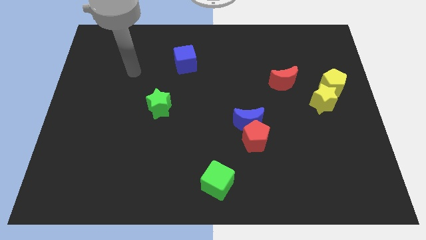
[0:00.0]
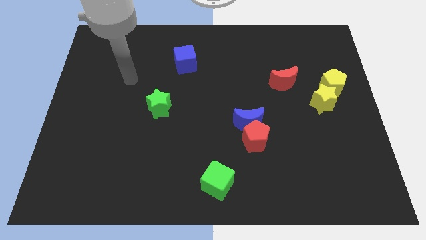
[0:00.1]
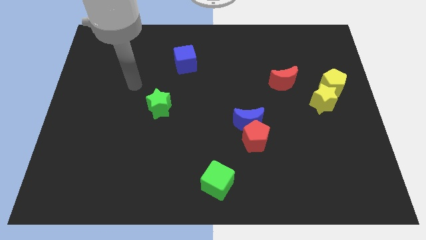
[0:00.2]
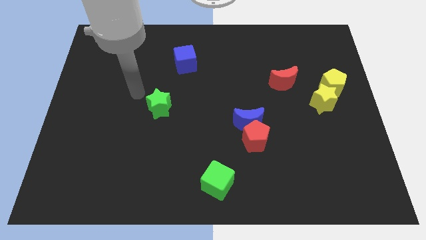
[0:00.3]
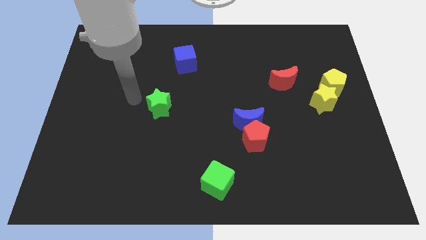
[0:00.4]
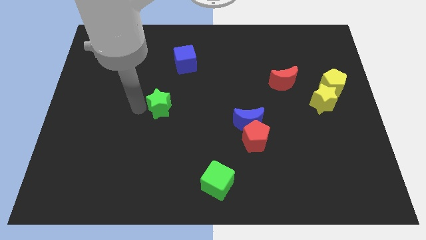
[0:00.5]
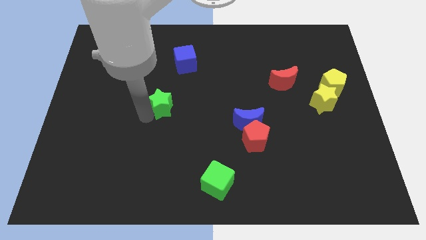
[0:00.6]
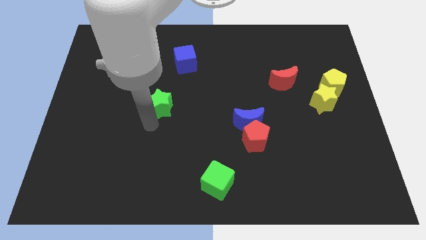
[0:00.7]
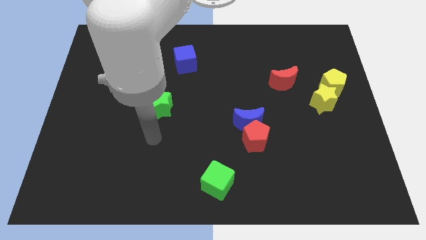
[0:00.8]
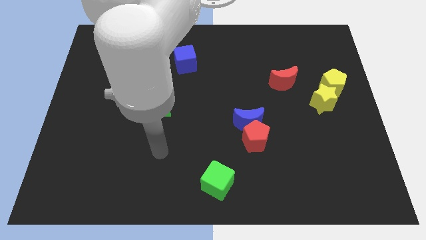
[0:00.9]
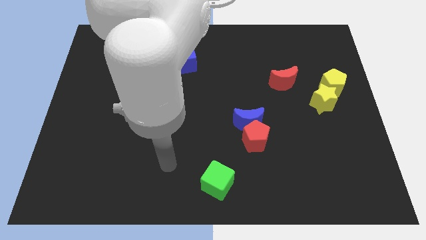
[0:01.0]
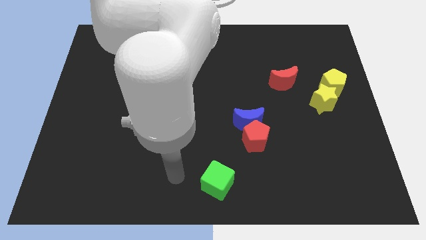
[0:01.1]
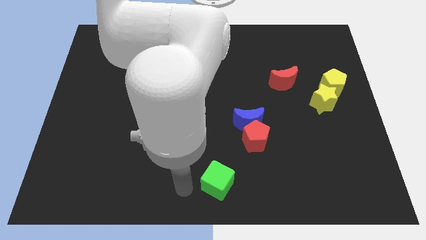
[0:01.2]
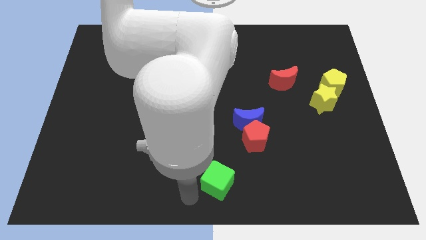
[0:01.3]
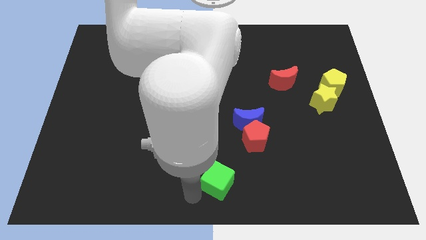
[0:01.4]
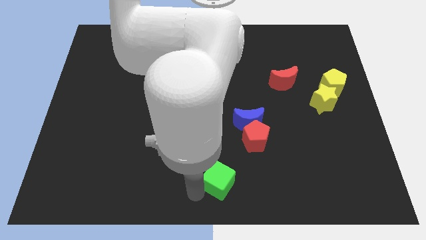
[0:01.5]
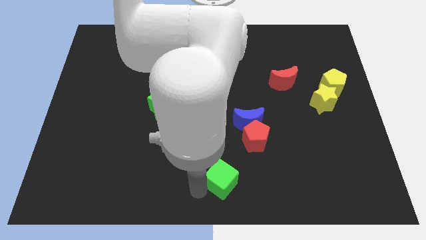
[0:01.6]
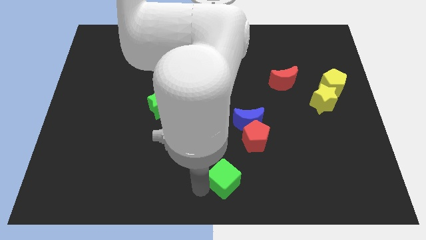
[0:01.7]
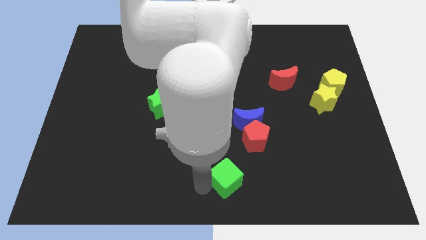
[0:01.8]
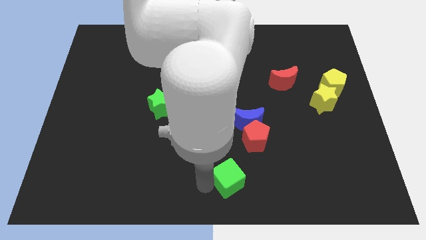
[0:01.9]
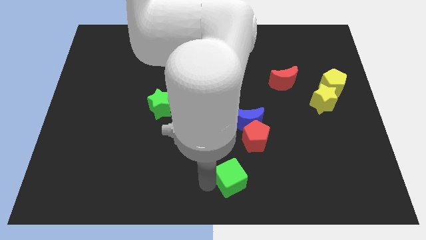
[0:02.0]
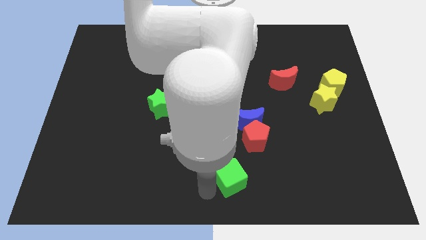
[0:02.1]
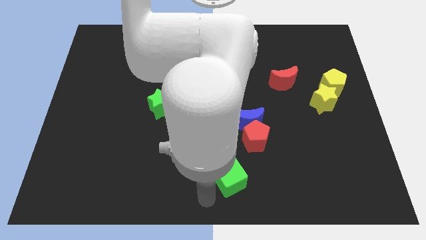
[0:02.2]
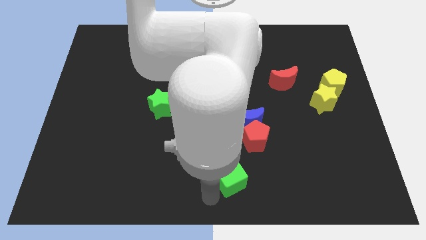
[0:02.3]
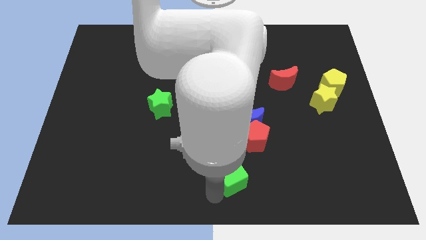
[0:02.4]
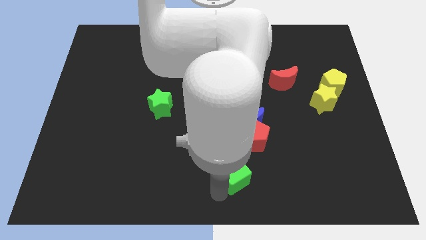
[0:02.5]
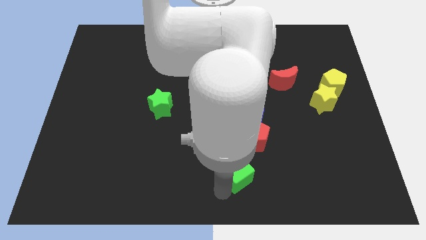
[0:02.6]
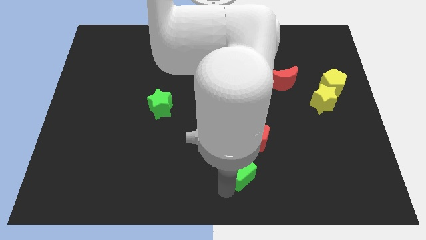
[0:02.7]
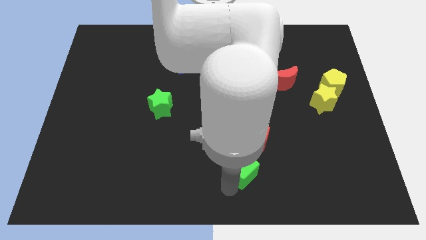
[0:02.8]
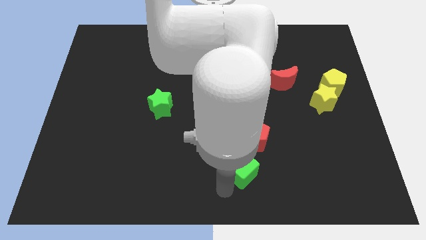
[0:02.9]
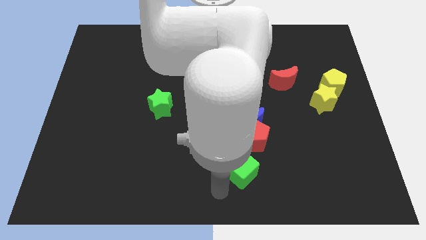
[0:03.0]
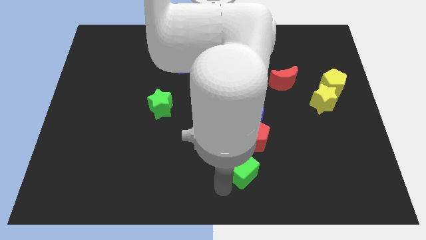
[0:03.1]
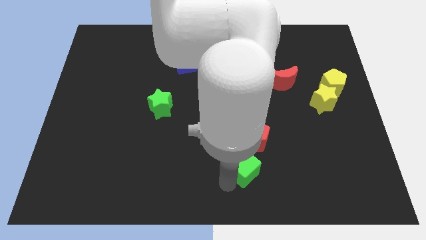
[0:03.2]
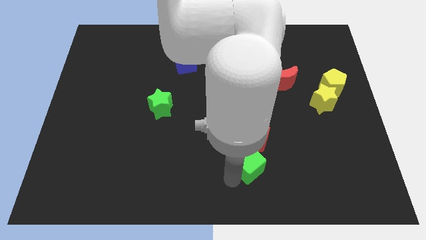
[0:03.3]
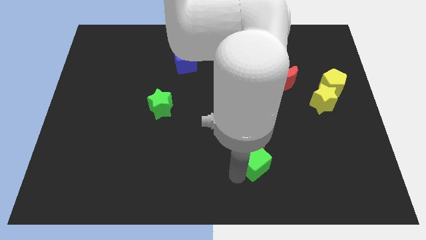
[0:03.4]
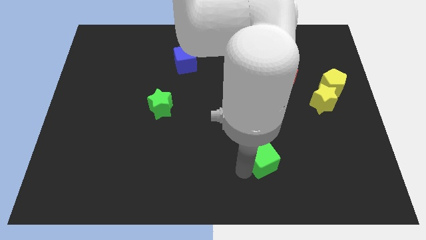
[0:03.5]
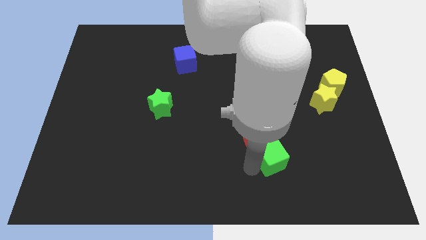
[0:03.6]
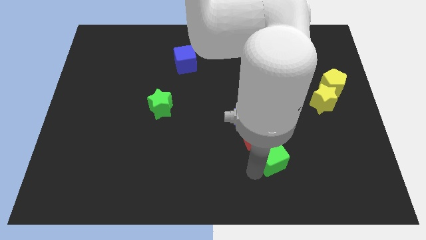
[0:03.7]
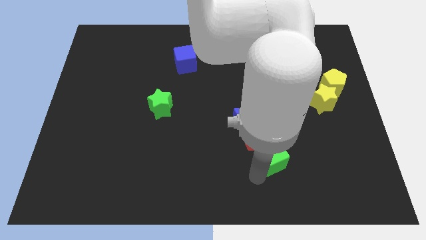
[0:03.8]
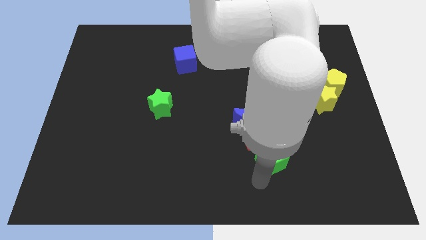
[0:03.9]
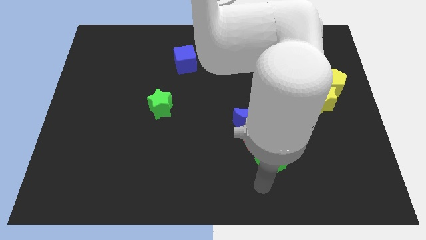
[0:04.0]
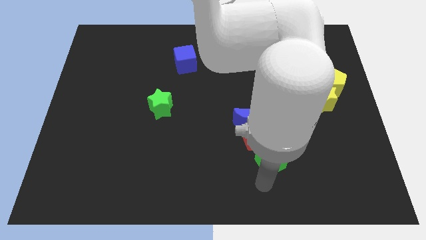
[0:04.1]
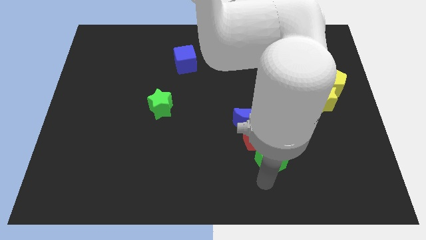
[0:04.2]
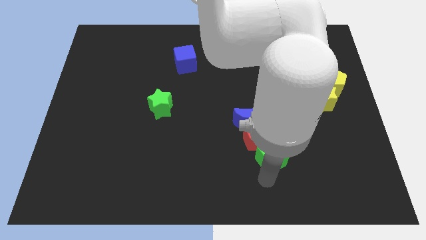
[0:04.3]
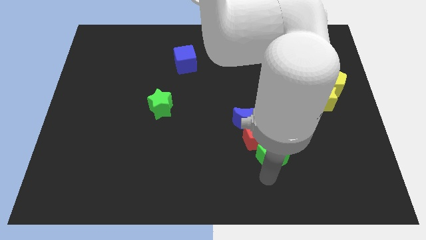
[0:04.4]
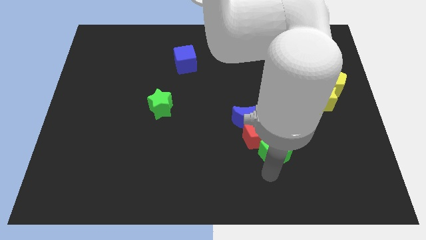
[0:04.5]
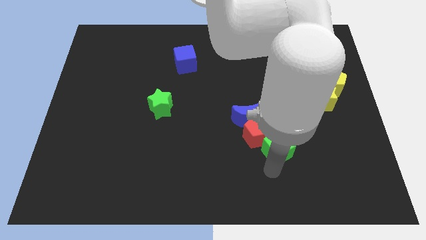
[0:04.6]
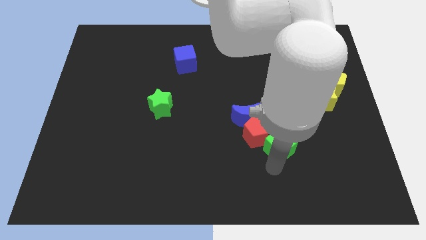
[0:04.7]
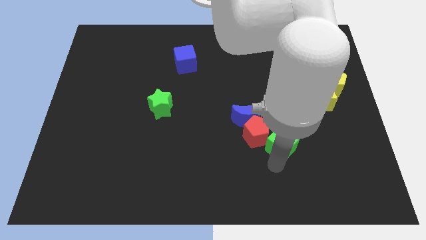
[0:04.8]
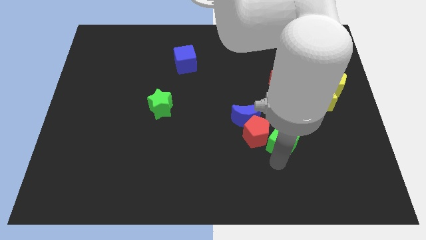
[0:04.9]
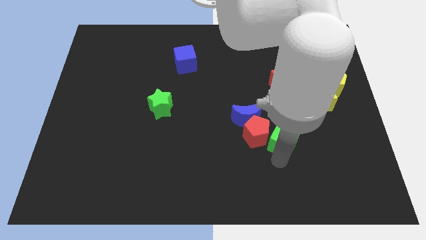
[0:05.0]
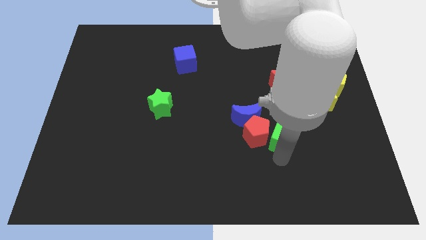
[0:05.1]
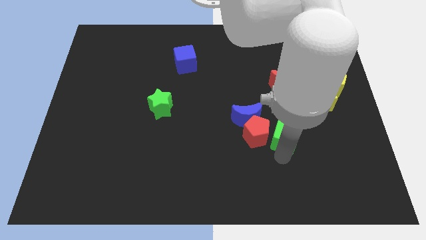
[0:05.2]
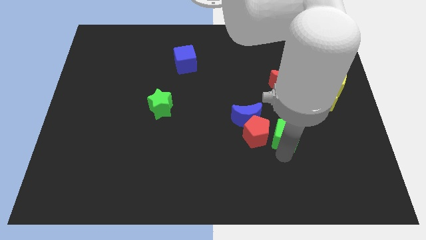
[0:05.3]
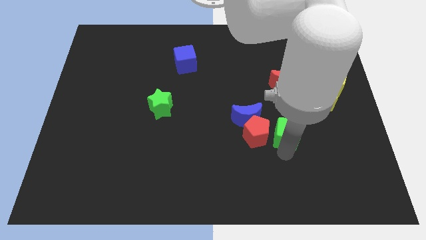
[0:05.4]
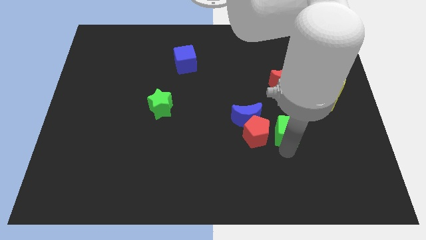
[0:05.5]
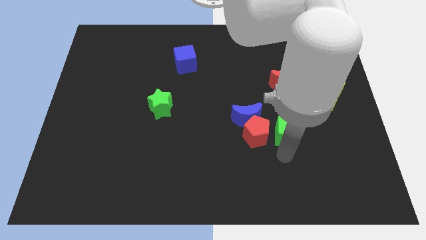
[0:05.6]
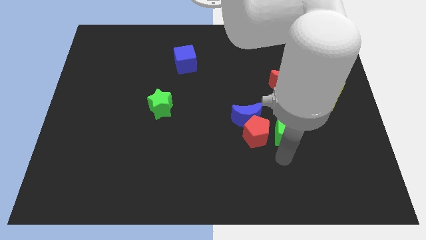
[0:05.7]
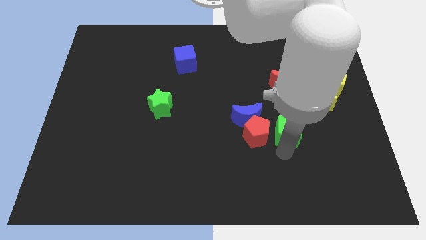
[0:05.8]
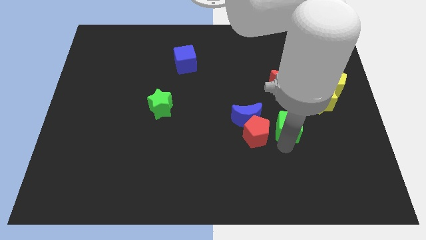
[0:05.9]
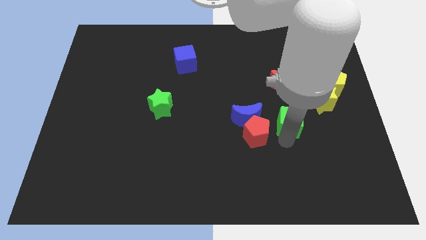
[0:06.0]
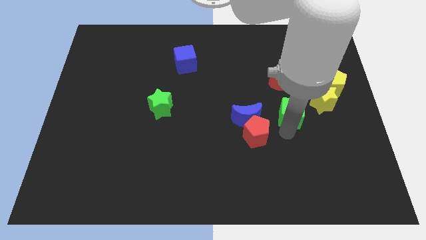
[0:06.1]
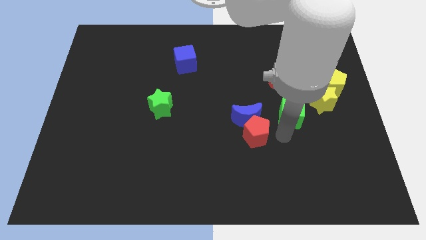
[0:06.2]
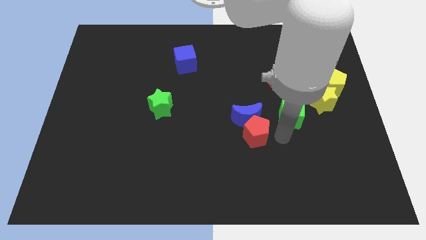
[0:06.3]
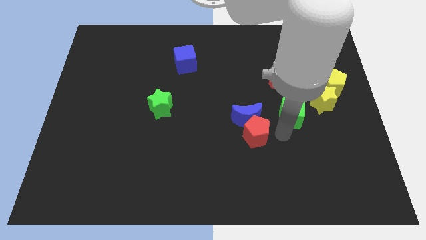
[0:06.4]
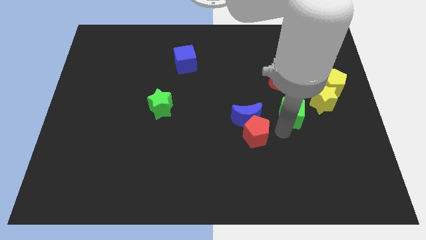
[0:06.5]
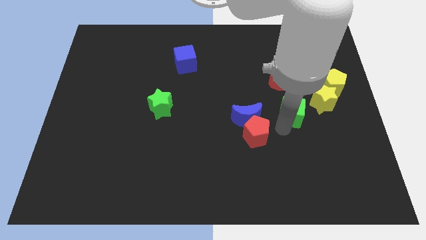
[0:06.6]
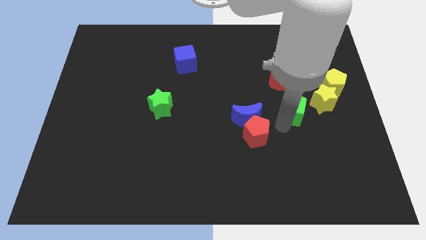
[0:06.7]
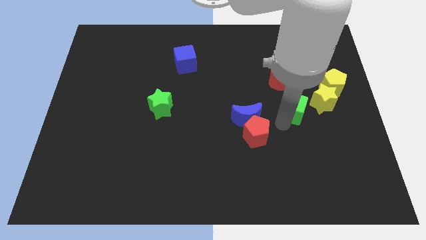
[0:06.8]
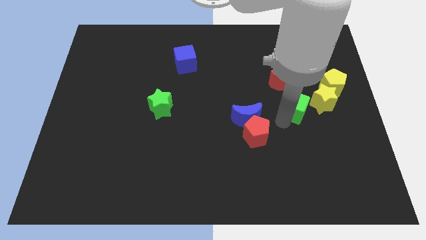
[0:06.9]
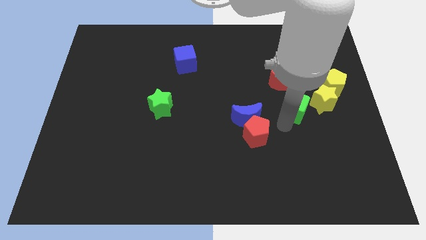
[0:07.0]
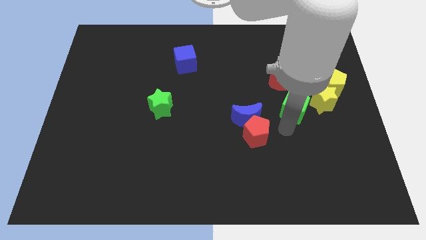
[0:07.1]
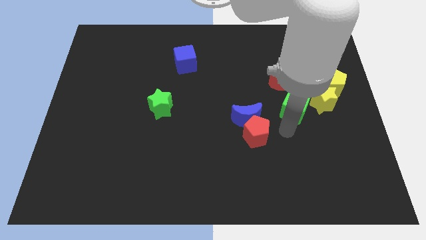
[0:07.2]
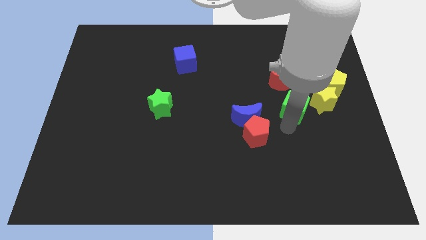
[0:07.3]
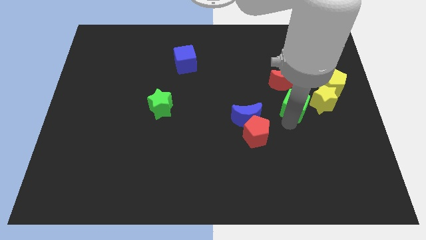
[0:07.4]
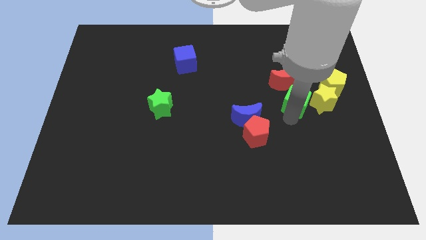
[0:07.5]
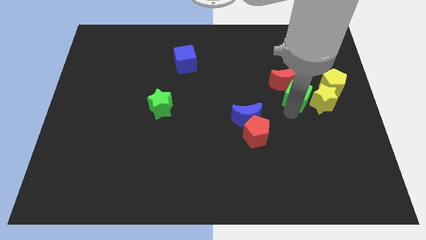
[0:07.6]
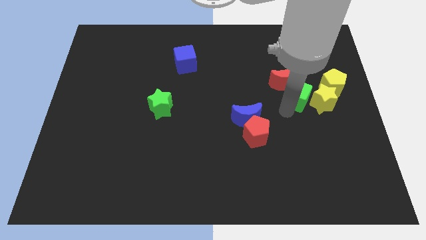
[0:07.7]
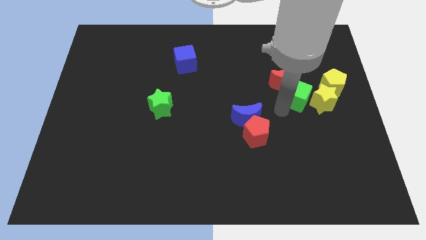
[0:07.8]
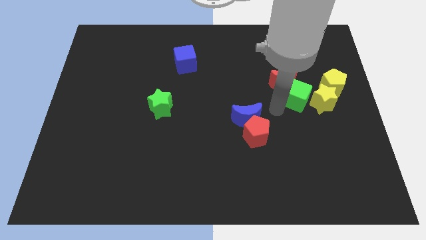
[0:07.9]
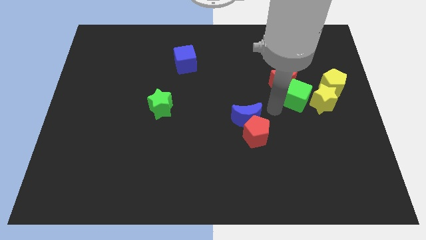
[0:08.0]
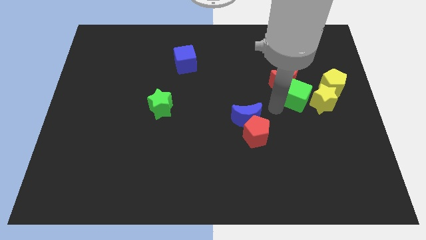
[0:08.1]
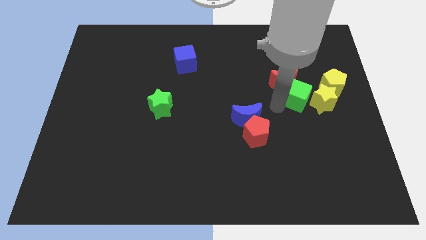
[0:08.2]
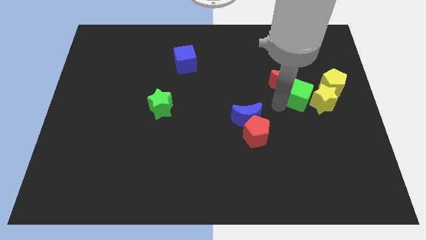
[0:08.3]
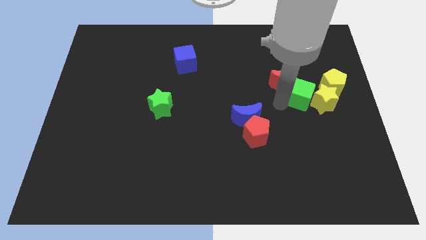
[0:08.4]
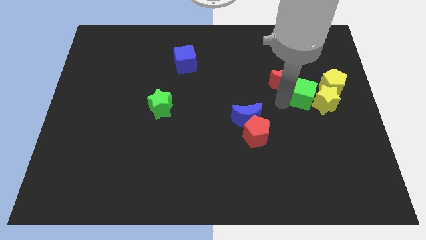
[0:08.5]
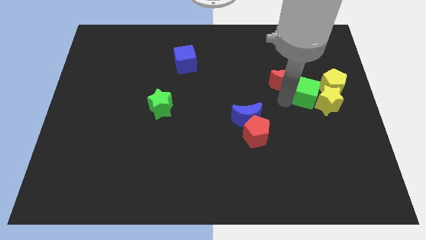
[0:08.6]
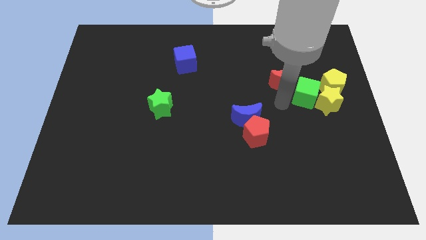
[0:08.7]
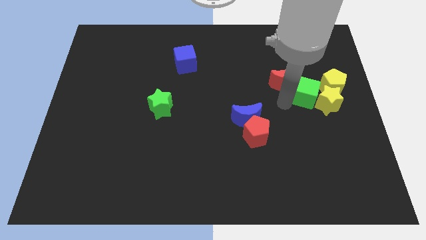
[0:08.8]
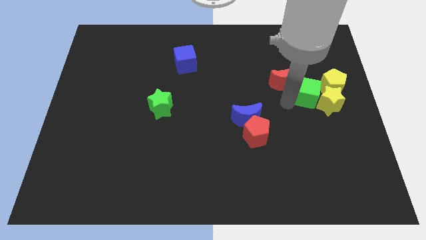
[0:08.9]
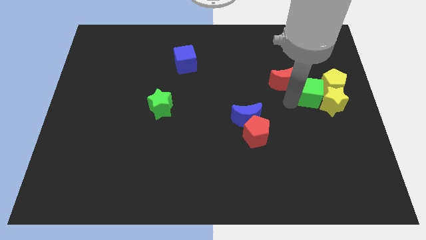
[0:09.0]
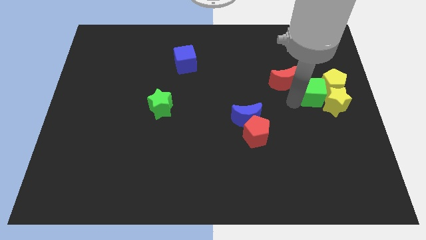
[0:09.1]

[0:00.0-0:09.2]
push the green cube next to the yellow pentagon
